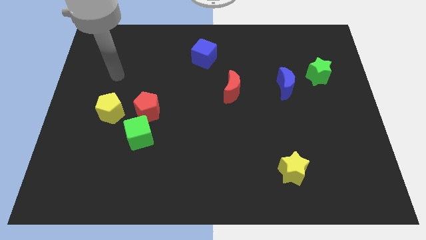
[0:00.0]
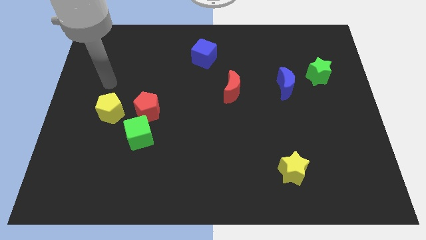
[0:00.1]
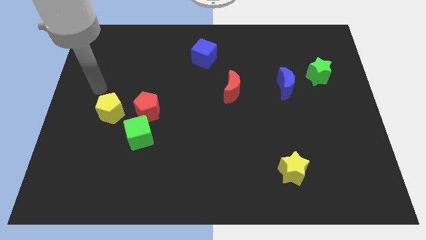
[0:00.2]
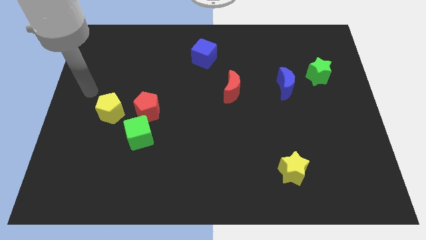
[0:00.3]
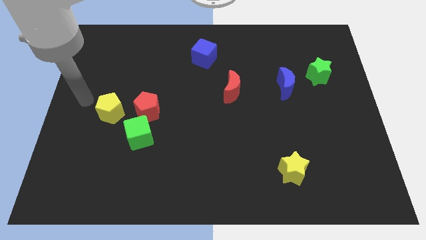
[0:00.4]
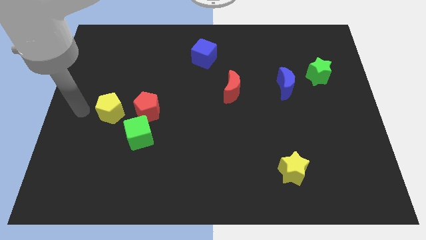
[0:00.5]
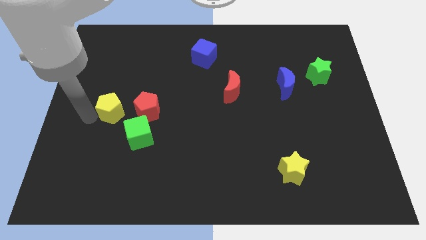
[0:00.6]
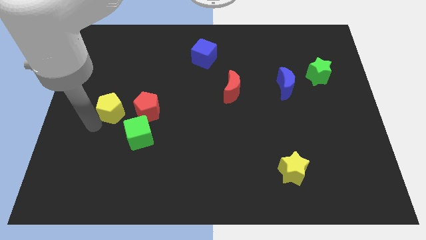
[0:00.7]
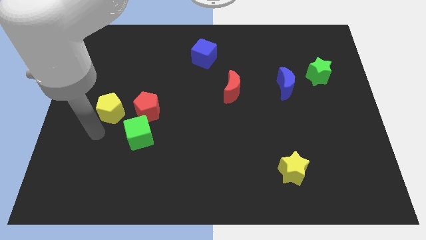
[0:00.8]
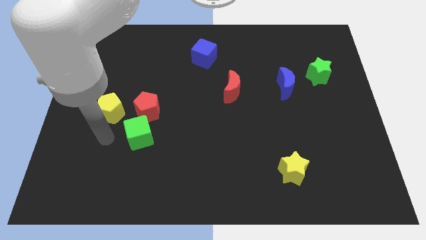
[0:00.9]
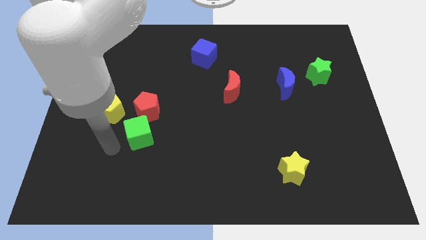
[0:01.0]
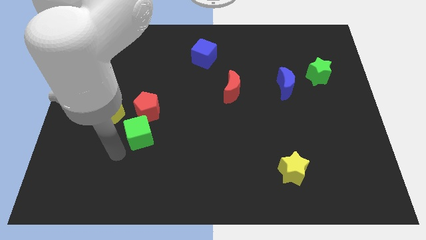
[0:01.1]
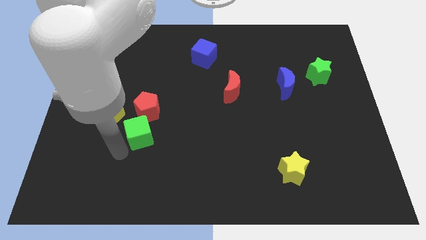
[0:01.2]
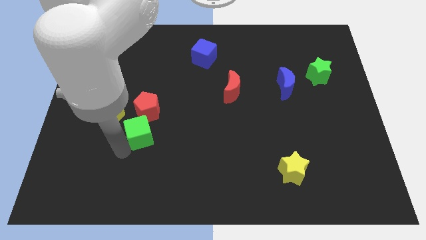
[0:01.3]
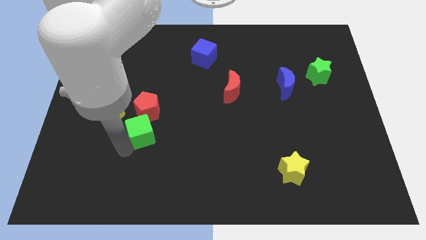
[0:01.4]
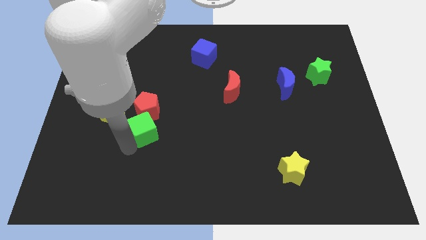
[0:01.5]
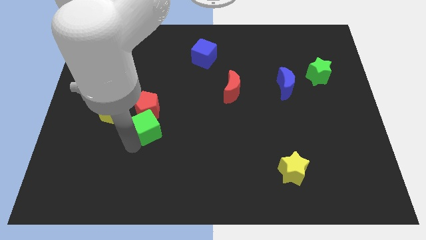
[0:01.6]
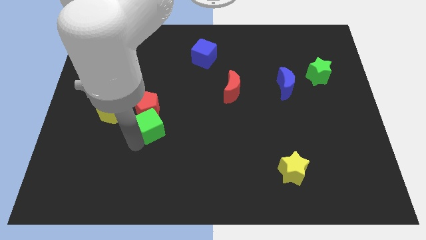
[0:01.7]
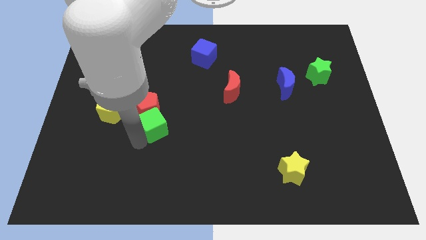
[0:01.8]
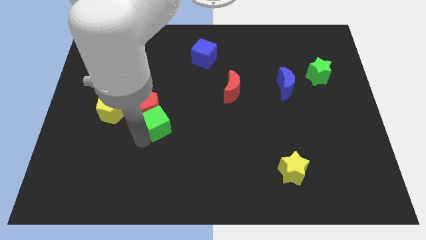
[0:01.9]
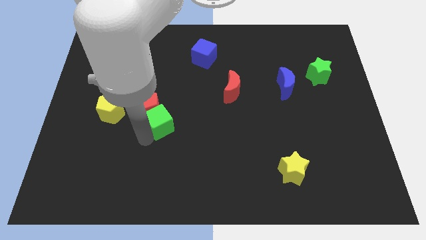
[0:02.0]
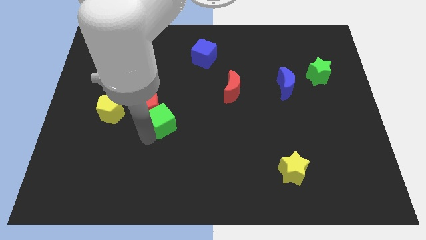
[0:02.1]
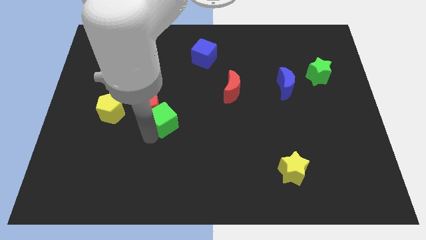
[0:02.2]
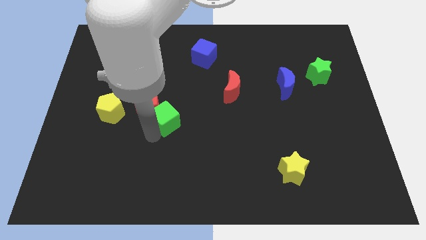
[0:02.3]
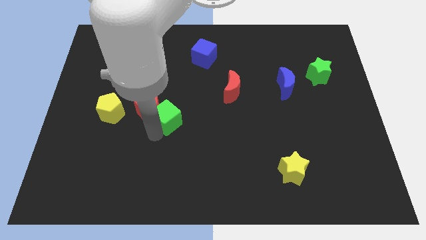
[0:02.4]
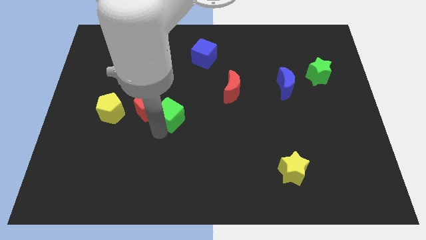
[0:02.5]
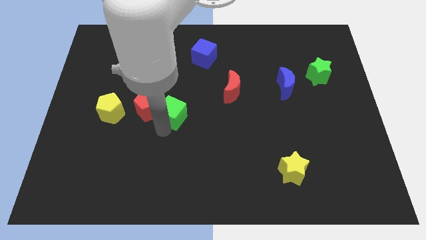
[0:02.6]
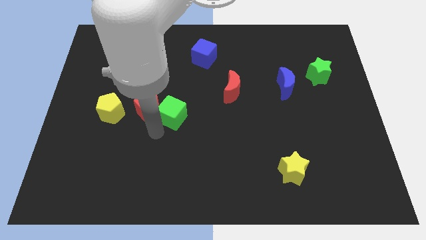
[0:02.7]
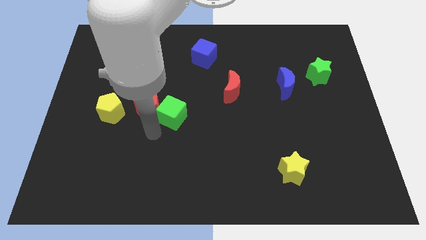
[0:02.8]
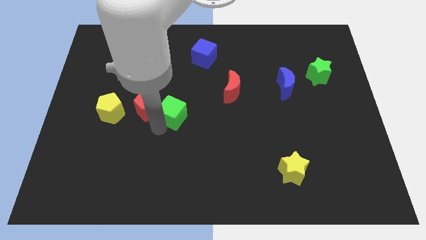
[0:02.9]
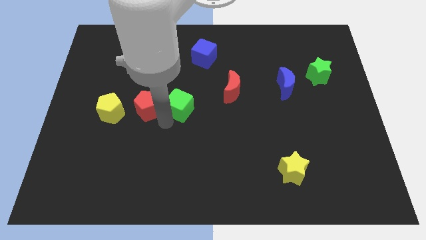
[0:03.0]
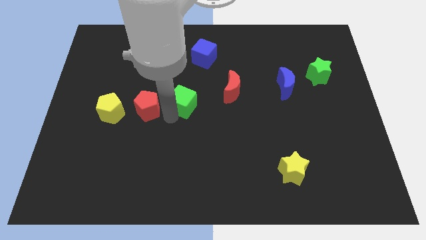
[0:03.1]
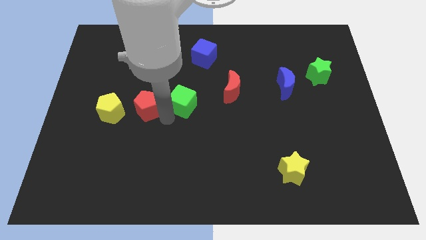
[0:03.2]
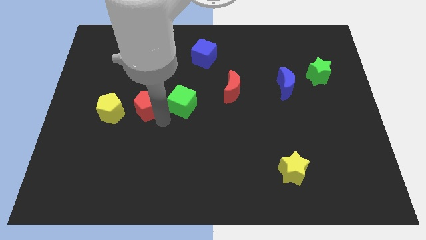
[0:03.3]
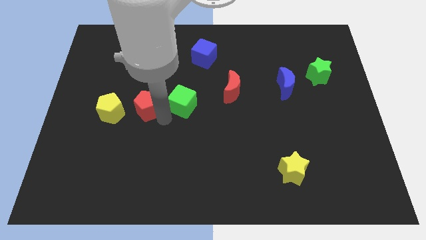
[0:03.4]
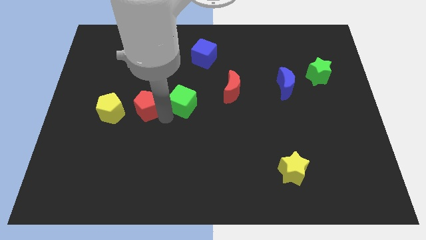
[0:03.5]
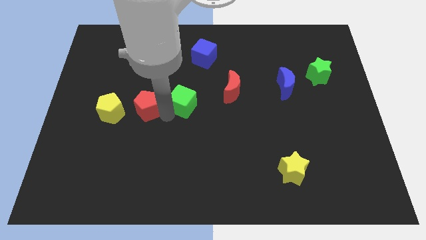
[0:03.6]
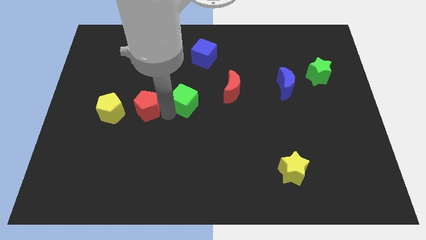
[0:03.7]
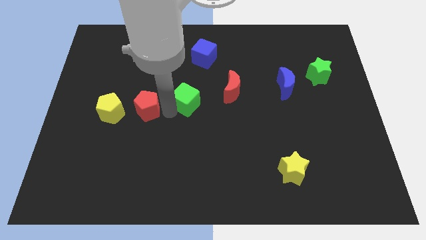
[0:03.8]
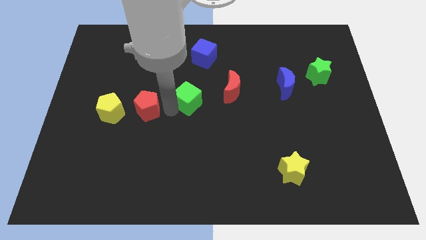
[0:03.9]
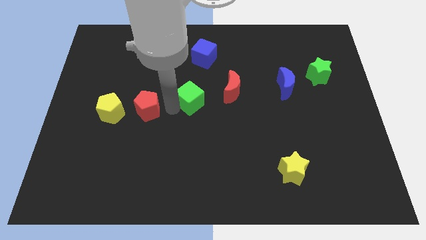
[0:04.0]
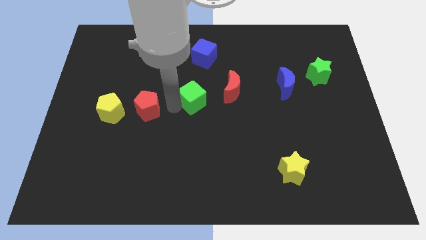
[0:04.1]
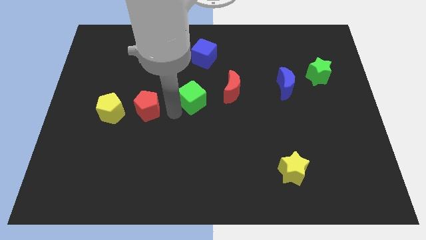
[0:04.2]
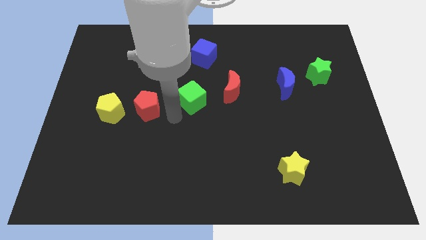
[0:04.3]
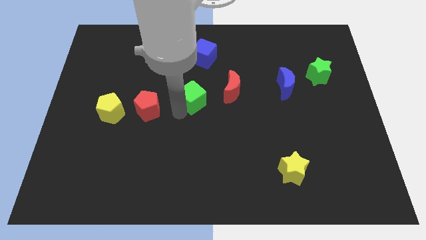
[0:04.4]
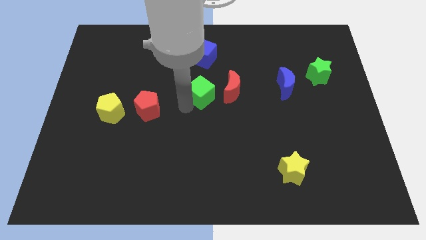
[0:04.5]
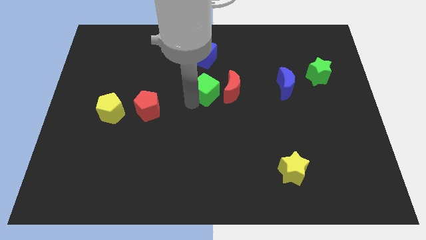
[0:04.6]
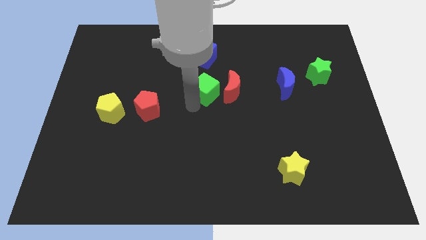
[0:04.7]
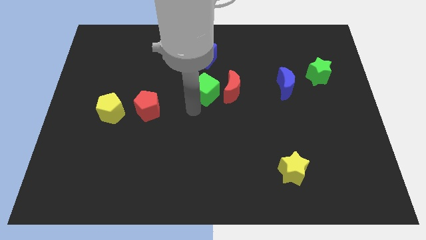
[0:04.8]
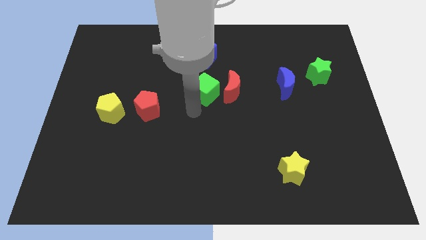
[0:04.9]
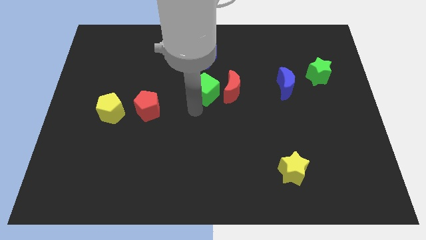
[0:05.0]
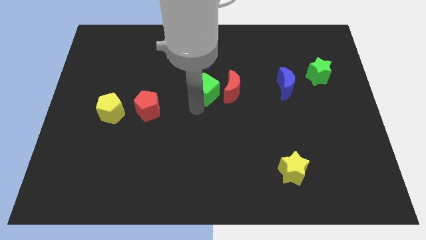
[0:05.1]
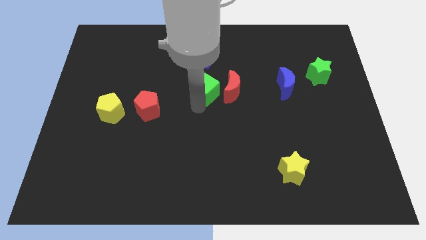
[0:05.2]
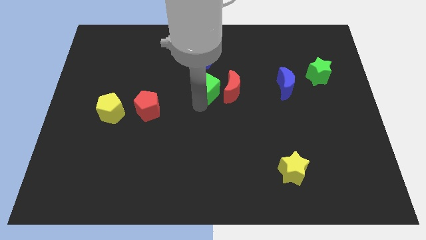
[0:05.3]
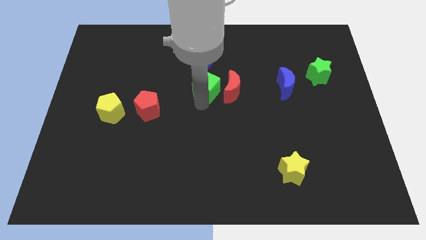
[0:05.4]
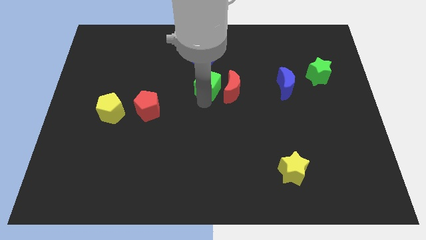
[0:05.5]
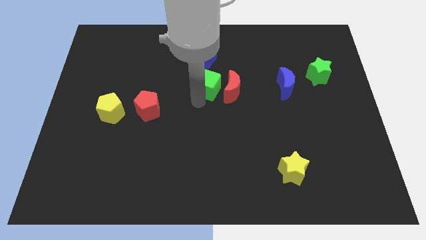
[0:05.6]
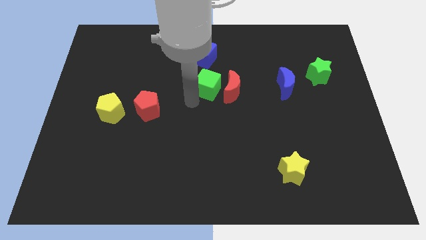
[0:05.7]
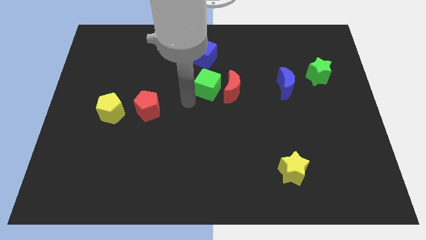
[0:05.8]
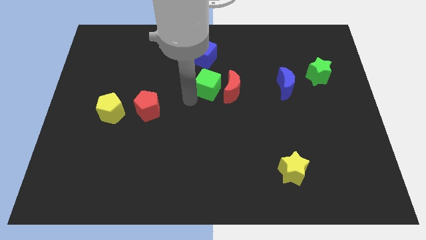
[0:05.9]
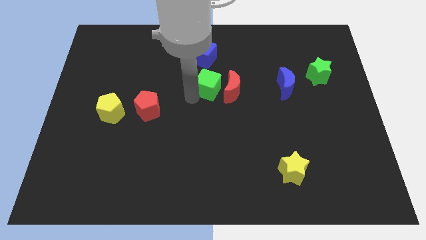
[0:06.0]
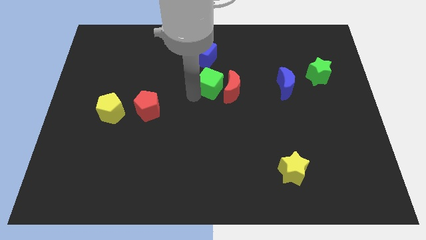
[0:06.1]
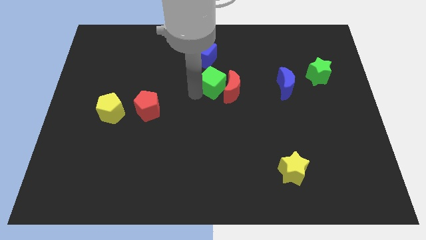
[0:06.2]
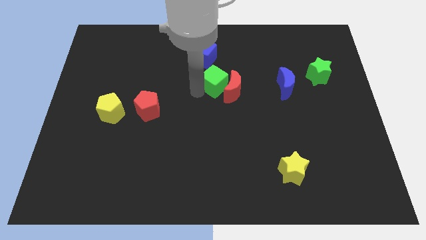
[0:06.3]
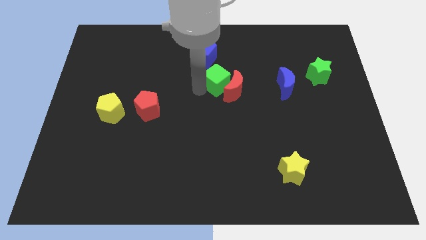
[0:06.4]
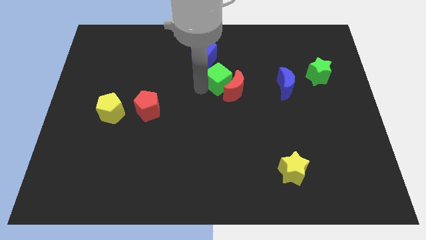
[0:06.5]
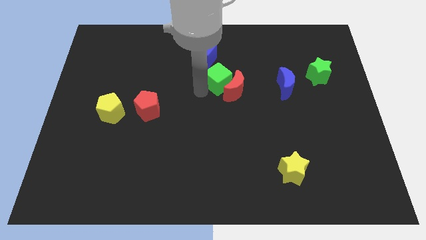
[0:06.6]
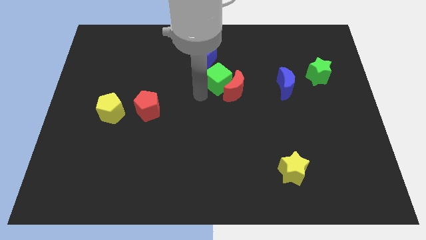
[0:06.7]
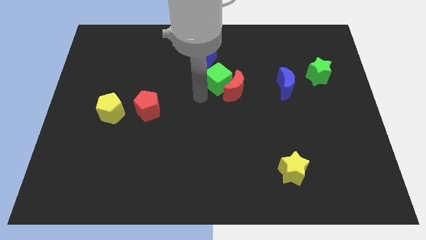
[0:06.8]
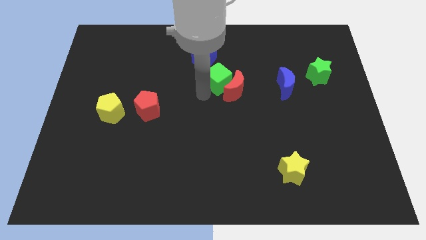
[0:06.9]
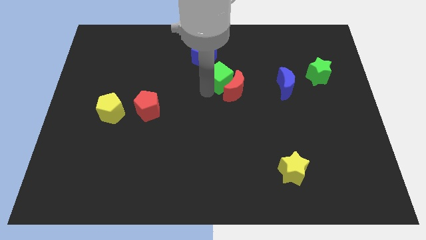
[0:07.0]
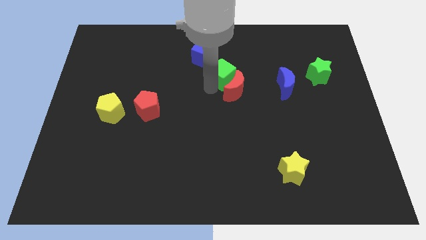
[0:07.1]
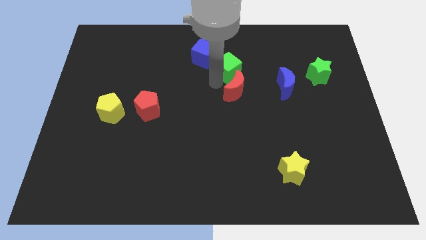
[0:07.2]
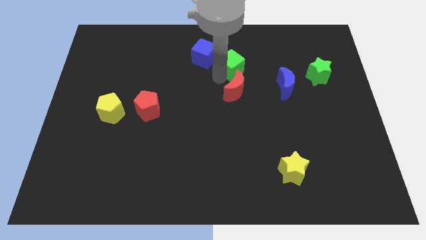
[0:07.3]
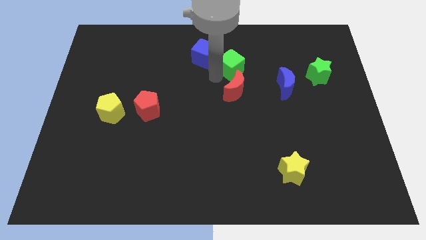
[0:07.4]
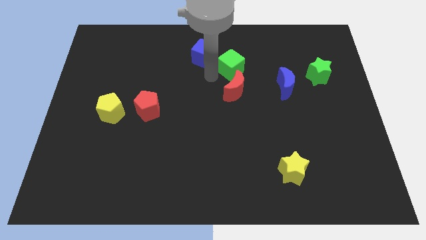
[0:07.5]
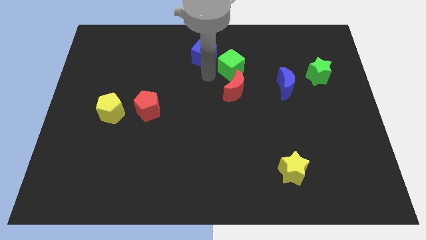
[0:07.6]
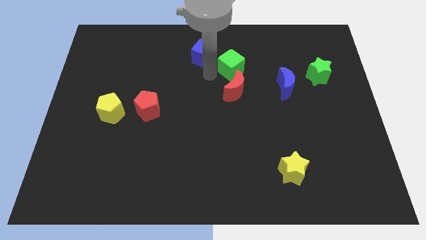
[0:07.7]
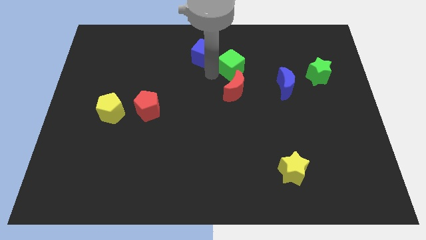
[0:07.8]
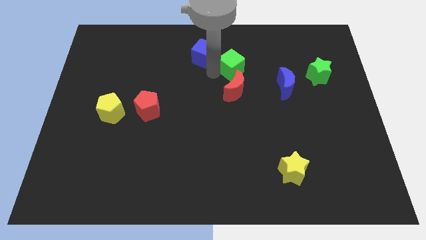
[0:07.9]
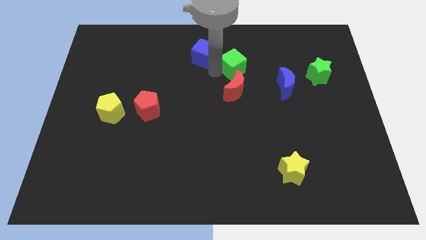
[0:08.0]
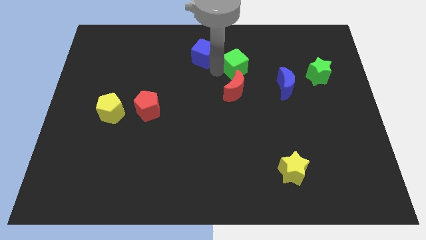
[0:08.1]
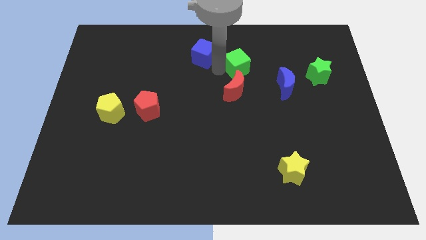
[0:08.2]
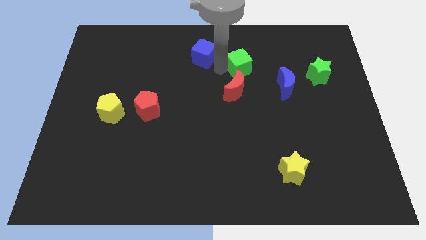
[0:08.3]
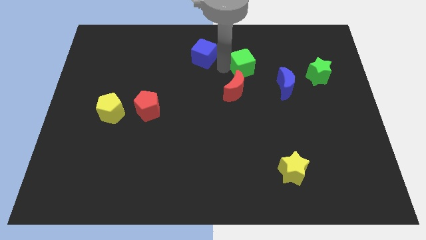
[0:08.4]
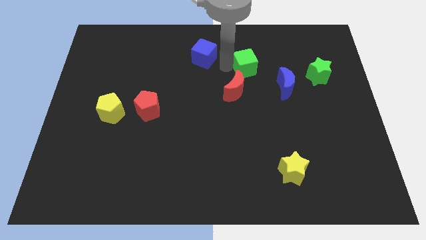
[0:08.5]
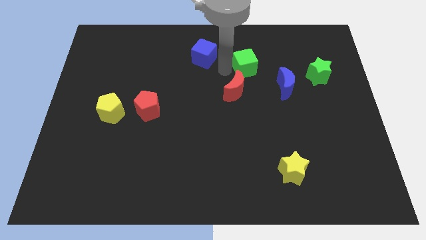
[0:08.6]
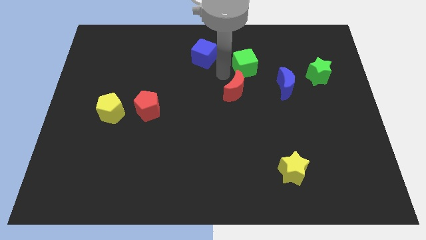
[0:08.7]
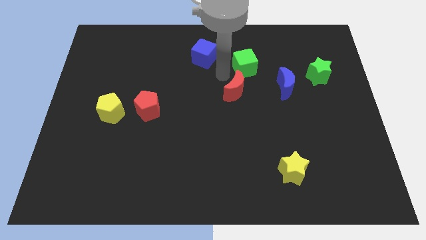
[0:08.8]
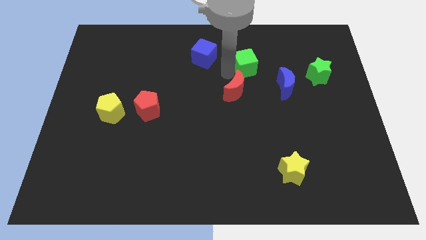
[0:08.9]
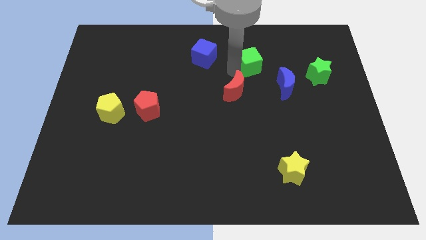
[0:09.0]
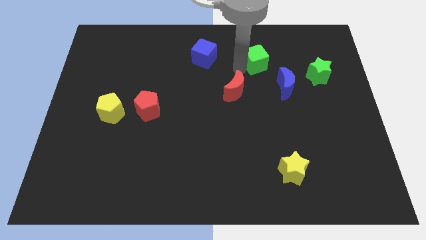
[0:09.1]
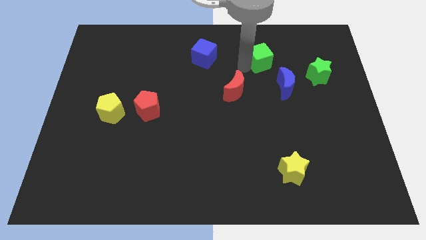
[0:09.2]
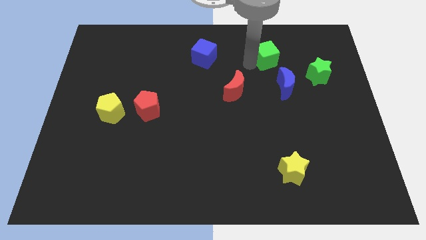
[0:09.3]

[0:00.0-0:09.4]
put the green cube to the top of the blue moon
